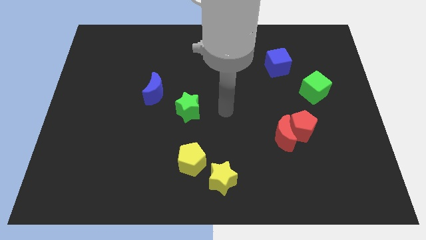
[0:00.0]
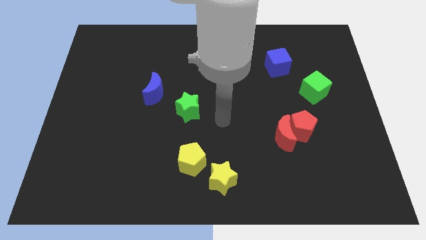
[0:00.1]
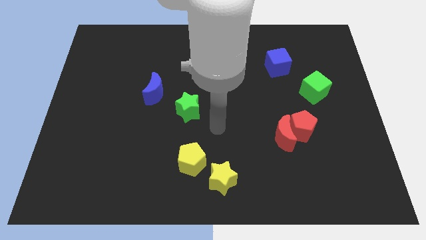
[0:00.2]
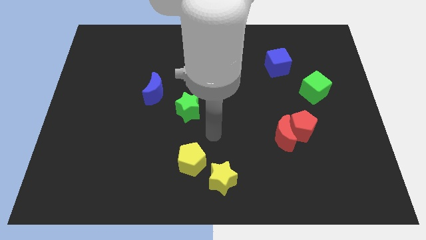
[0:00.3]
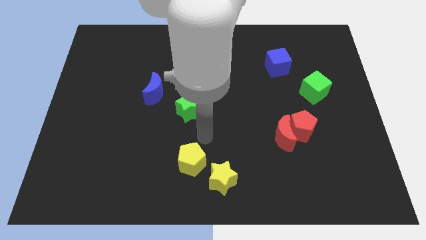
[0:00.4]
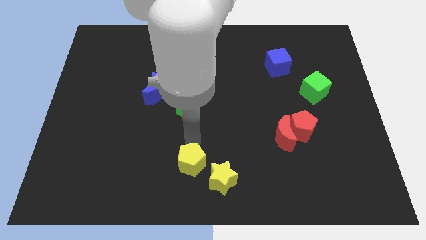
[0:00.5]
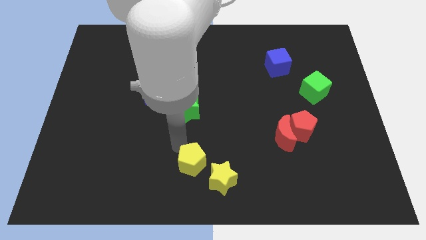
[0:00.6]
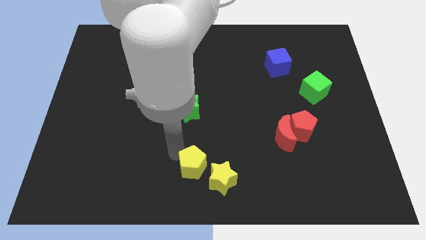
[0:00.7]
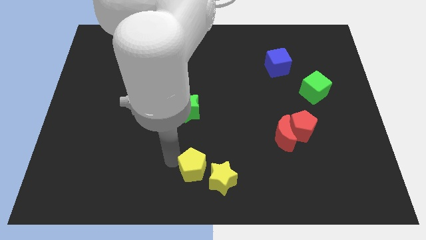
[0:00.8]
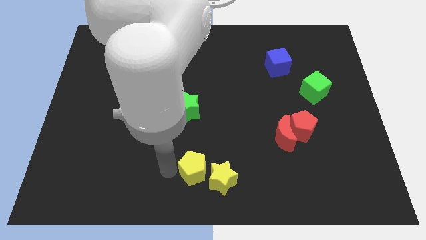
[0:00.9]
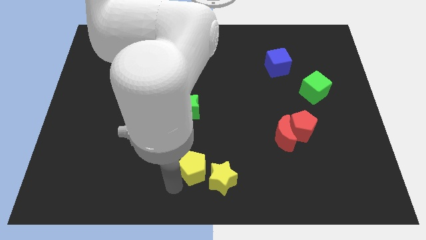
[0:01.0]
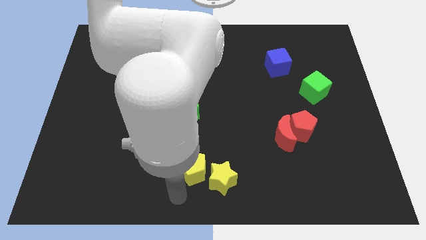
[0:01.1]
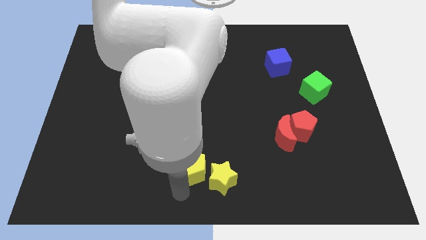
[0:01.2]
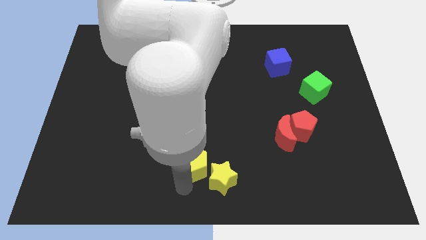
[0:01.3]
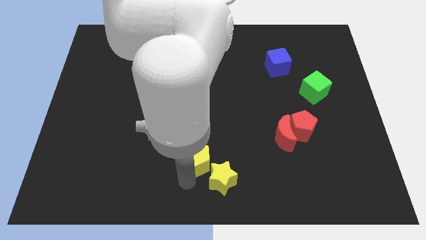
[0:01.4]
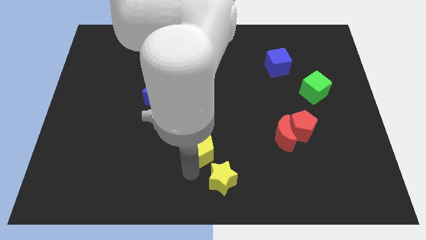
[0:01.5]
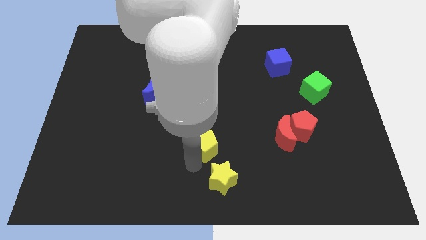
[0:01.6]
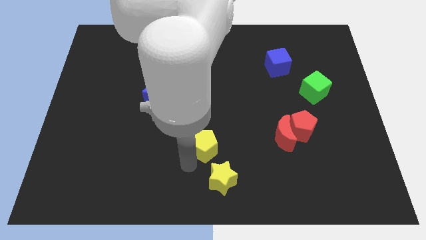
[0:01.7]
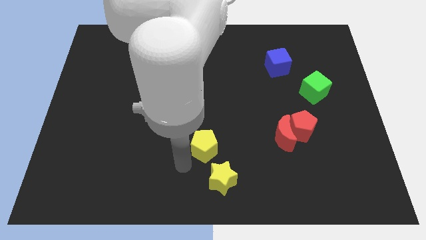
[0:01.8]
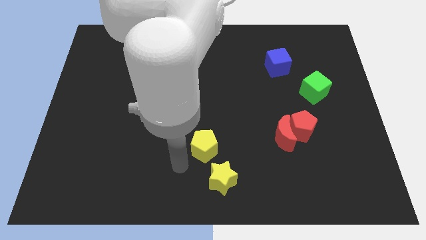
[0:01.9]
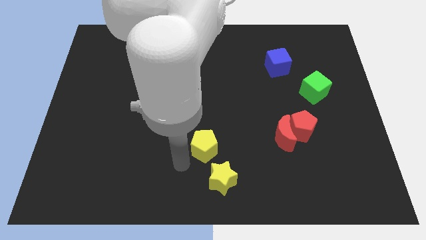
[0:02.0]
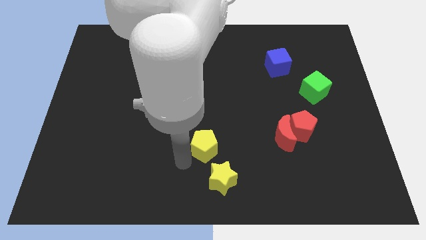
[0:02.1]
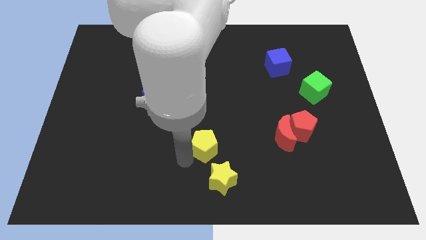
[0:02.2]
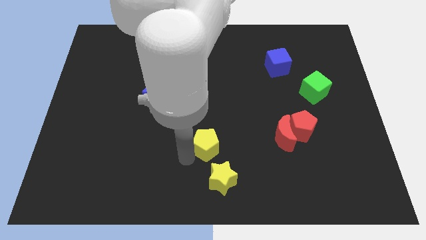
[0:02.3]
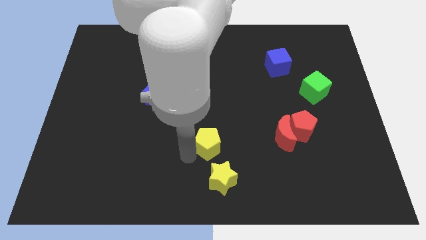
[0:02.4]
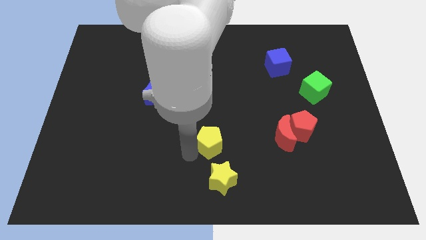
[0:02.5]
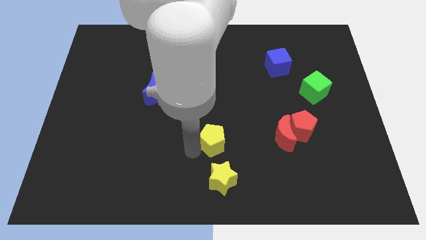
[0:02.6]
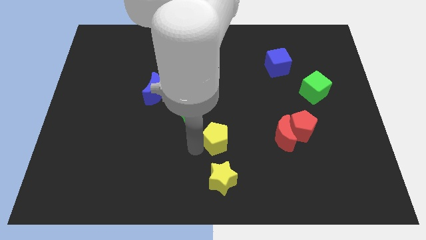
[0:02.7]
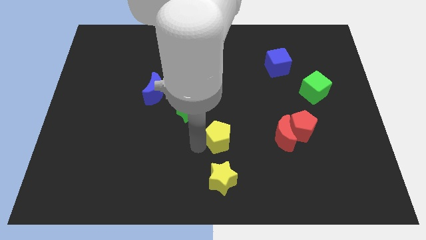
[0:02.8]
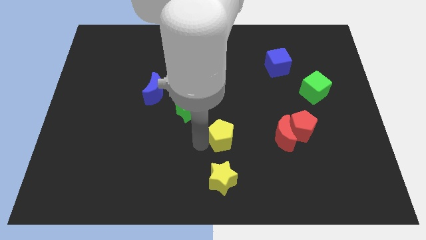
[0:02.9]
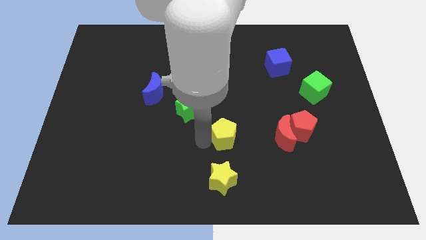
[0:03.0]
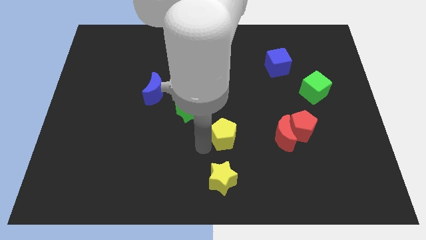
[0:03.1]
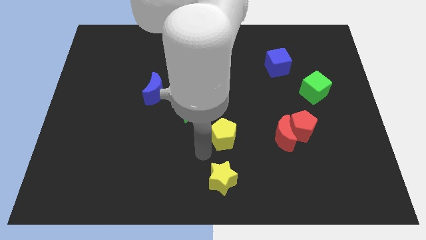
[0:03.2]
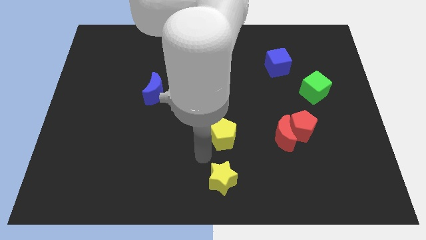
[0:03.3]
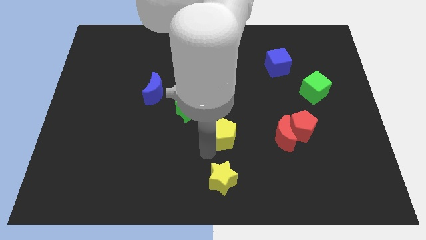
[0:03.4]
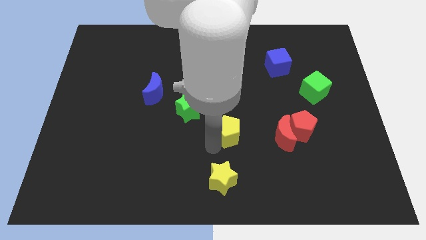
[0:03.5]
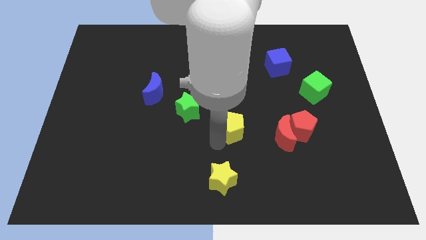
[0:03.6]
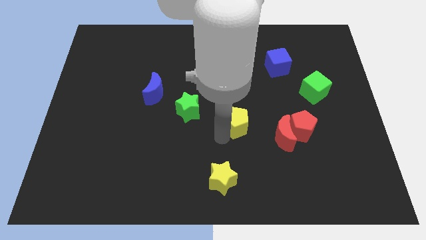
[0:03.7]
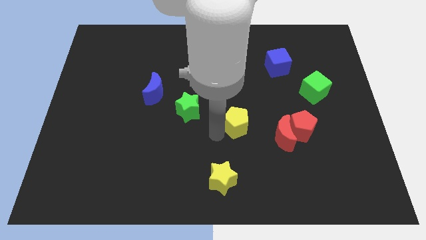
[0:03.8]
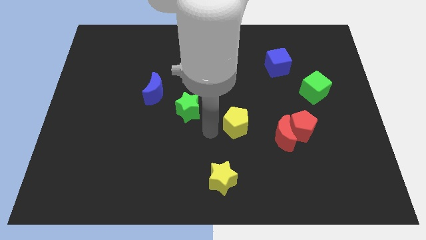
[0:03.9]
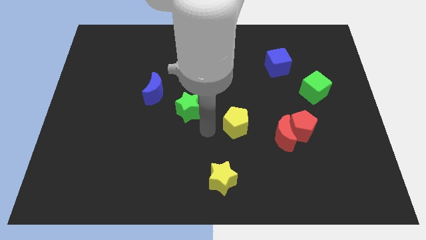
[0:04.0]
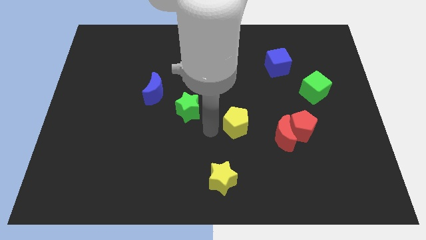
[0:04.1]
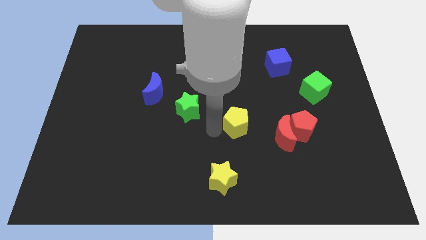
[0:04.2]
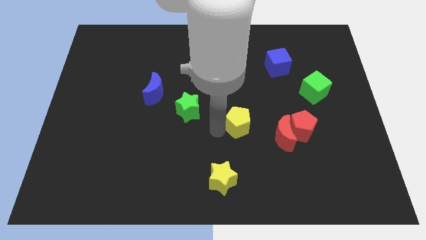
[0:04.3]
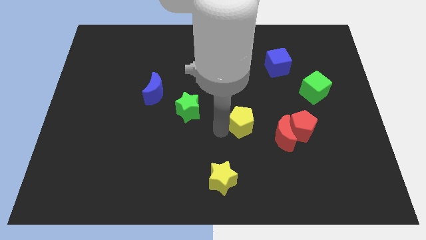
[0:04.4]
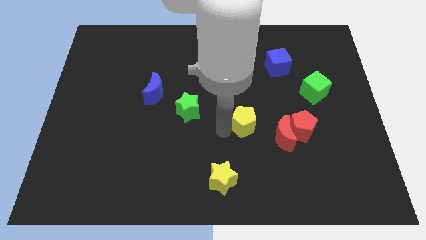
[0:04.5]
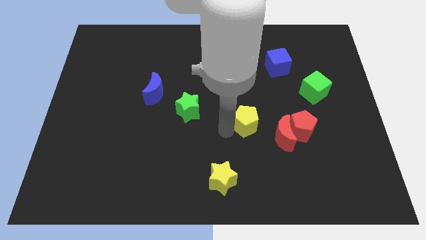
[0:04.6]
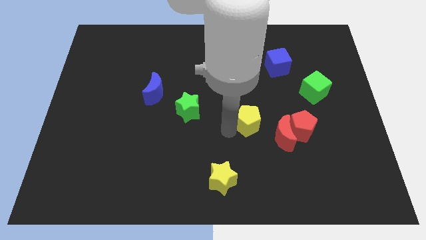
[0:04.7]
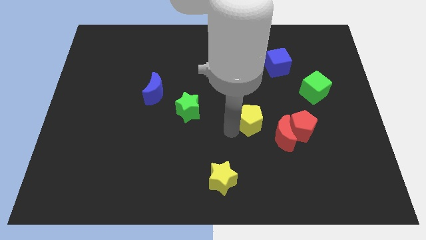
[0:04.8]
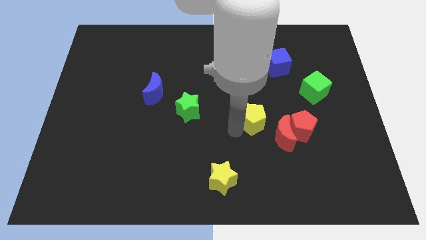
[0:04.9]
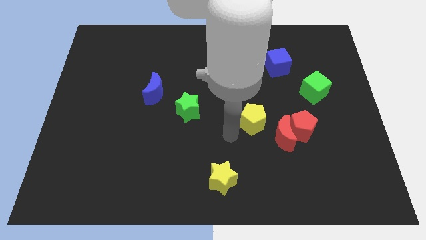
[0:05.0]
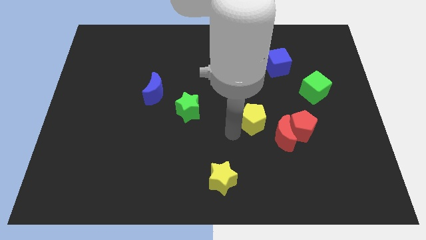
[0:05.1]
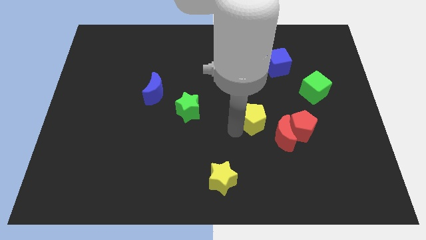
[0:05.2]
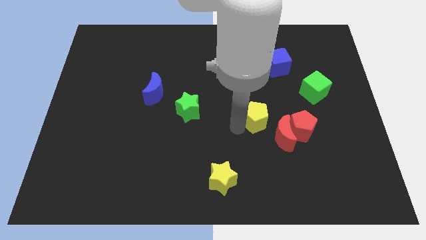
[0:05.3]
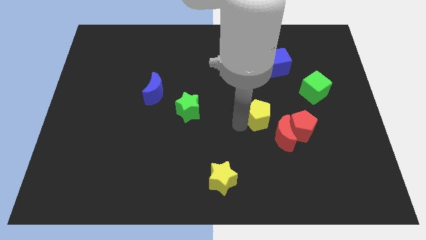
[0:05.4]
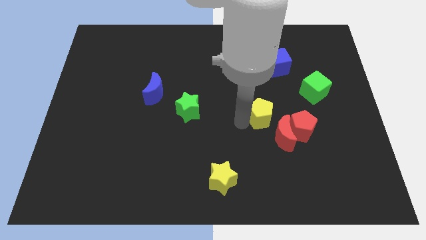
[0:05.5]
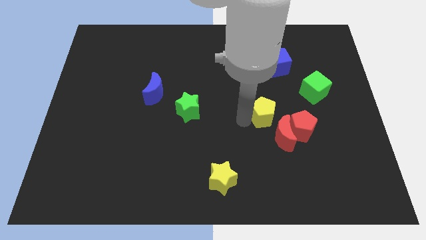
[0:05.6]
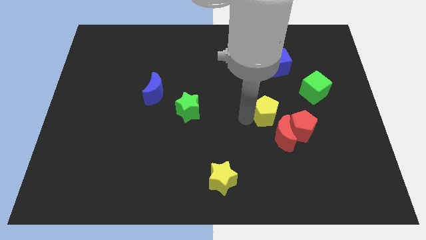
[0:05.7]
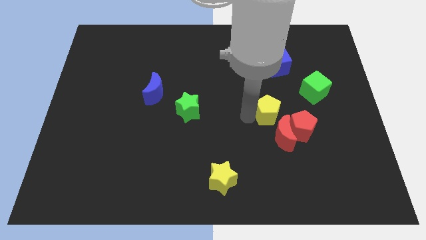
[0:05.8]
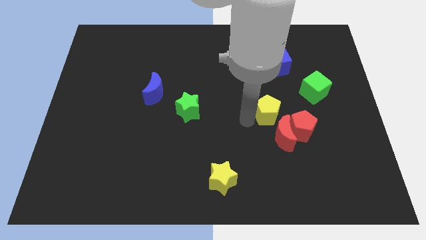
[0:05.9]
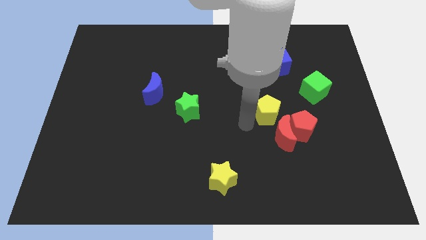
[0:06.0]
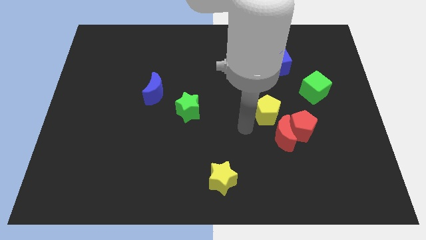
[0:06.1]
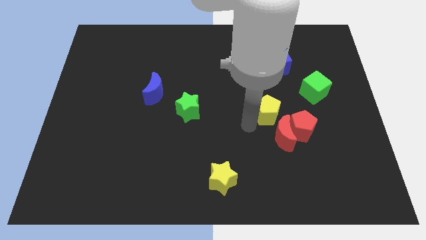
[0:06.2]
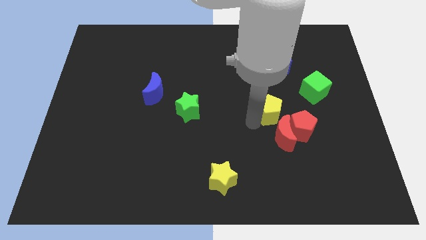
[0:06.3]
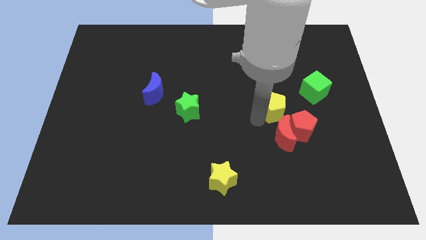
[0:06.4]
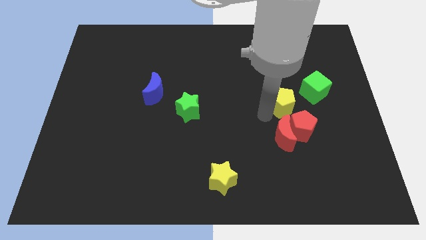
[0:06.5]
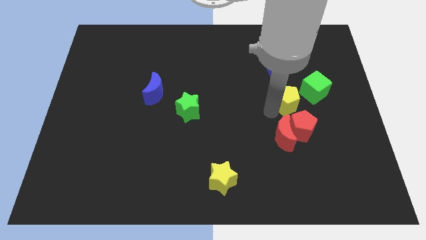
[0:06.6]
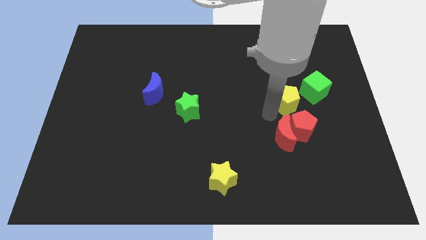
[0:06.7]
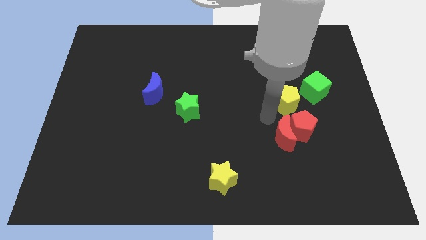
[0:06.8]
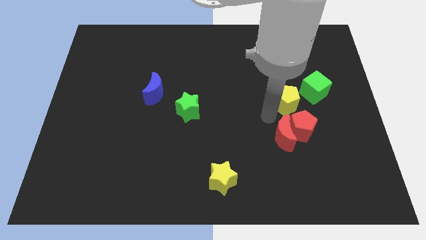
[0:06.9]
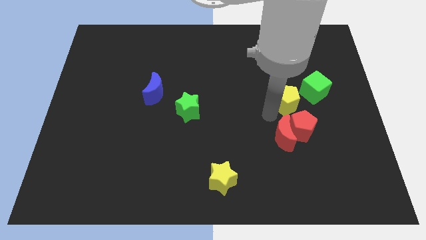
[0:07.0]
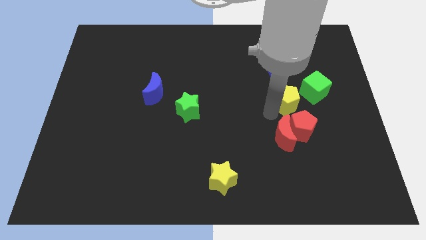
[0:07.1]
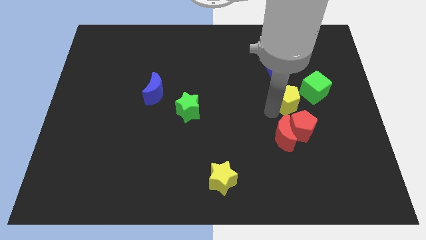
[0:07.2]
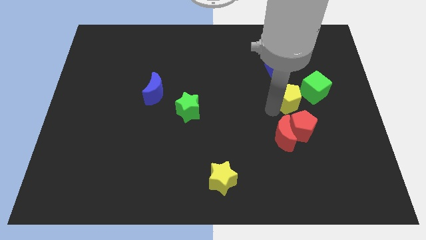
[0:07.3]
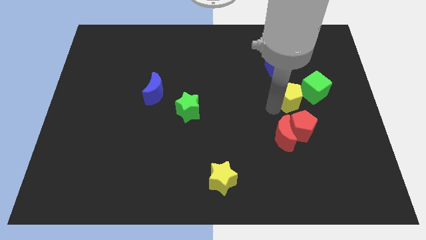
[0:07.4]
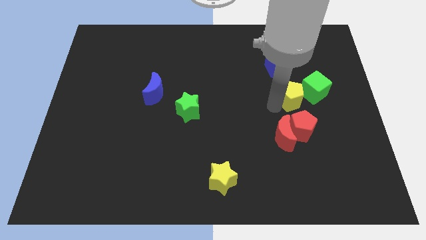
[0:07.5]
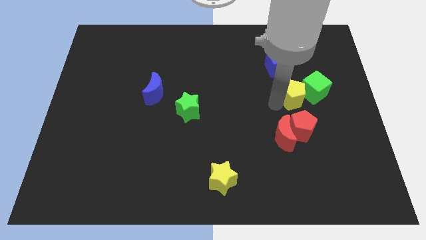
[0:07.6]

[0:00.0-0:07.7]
push the yellow pentagon towards the green cube

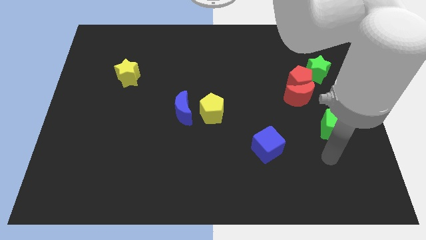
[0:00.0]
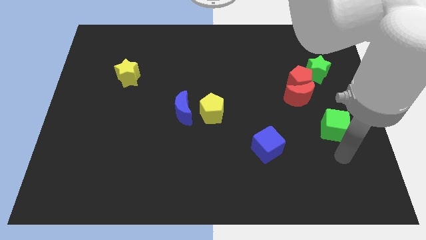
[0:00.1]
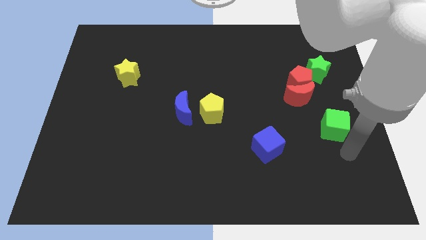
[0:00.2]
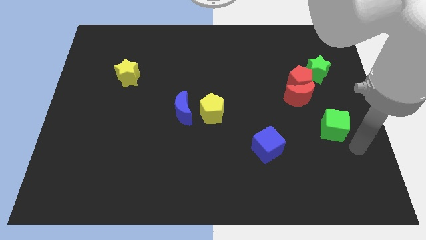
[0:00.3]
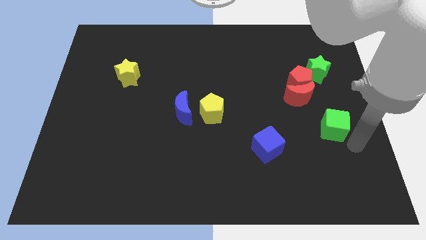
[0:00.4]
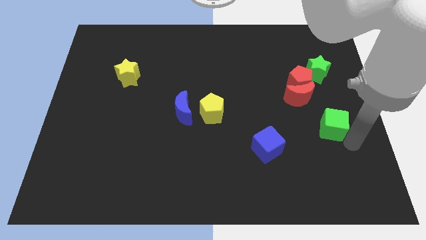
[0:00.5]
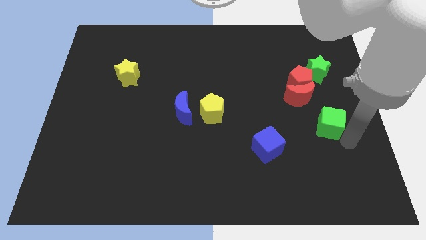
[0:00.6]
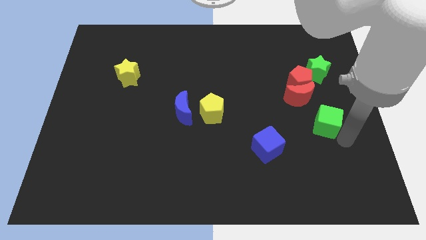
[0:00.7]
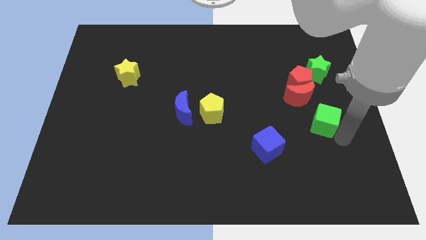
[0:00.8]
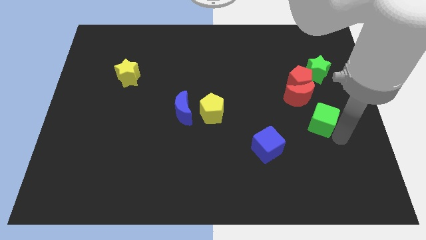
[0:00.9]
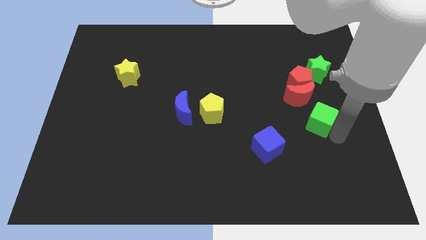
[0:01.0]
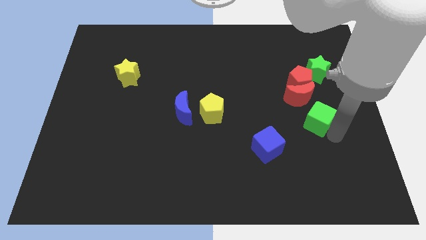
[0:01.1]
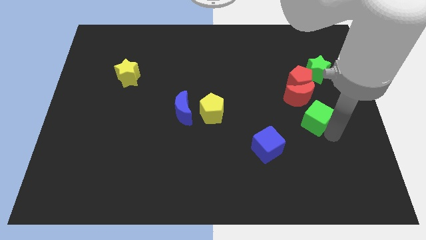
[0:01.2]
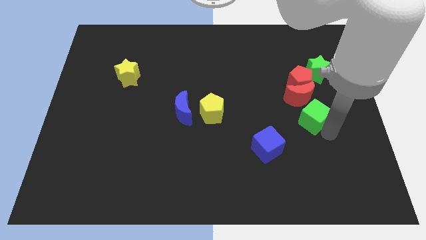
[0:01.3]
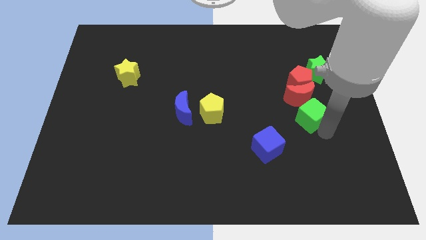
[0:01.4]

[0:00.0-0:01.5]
push the green cube close to the red moon
